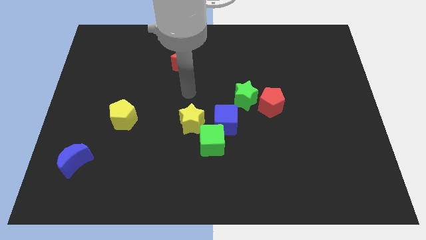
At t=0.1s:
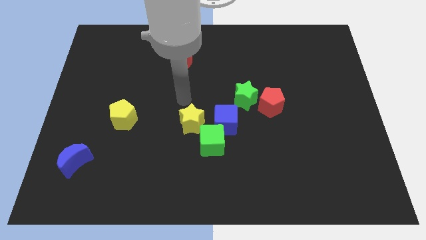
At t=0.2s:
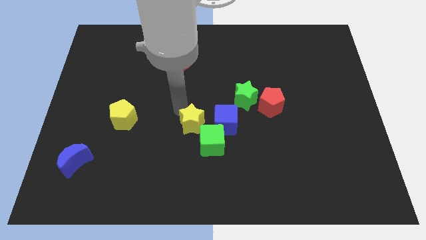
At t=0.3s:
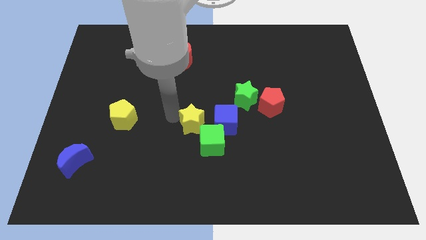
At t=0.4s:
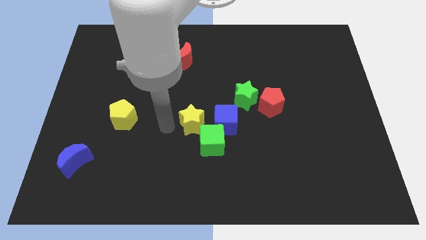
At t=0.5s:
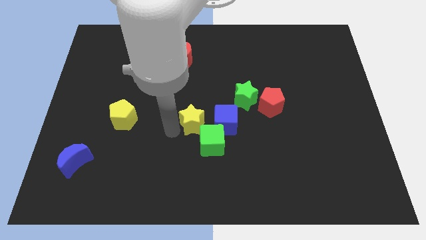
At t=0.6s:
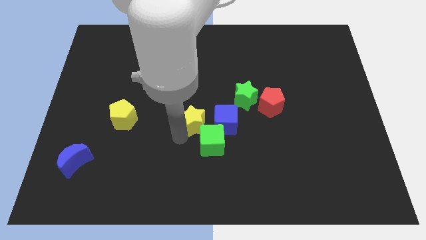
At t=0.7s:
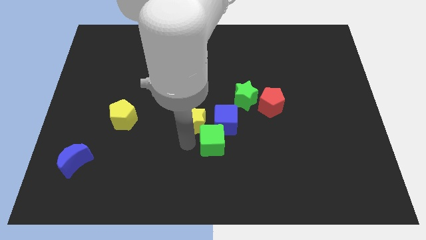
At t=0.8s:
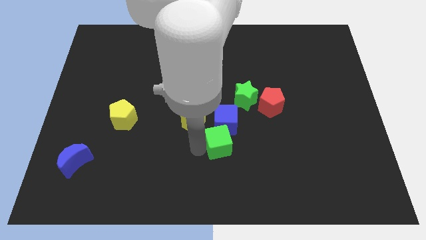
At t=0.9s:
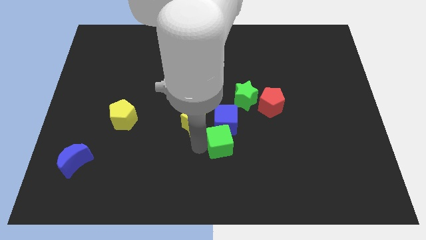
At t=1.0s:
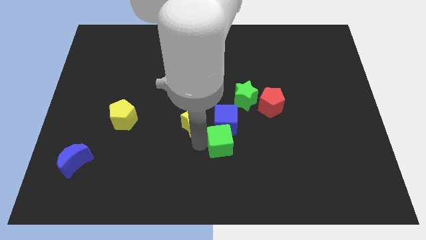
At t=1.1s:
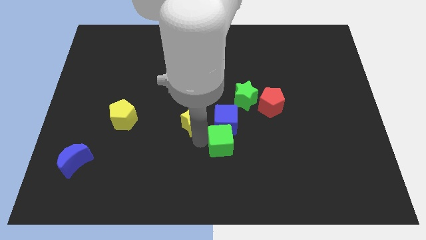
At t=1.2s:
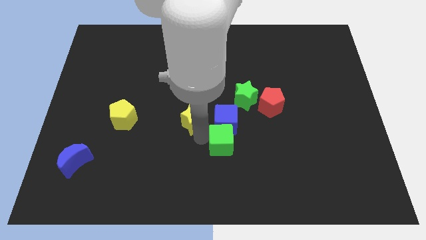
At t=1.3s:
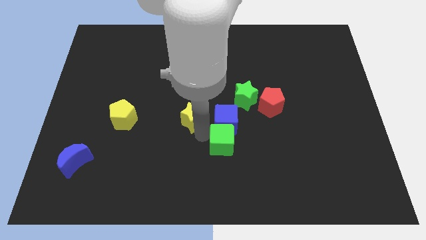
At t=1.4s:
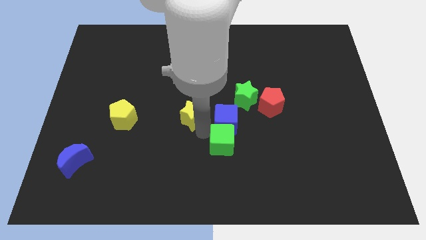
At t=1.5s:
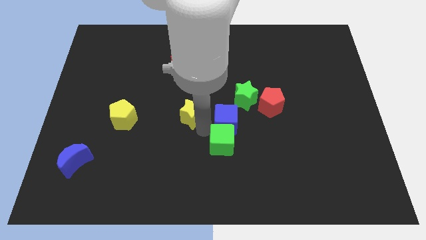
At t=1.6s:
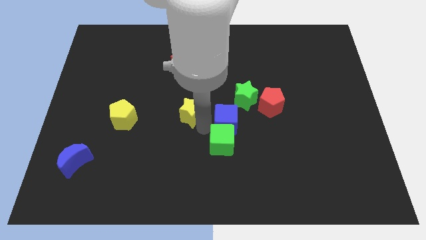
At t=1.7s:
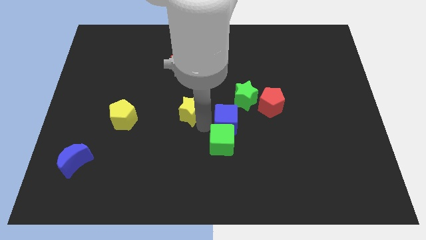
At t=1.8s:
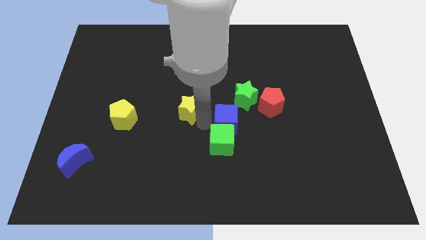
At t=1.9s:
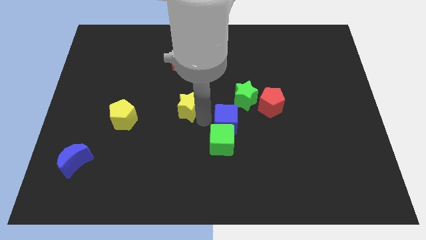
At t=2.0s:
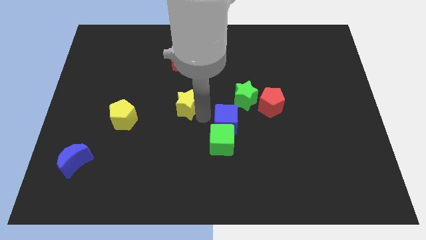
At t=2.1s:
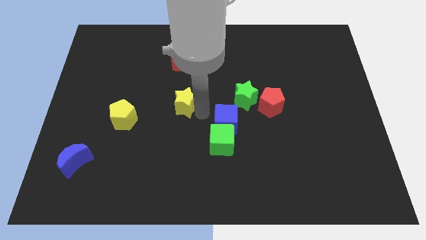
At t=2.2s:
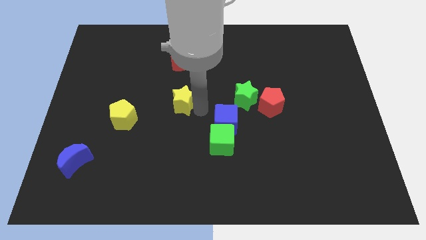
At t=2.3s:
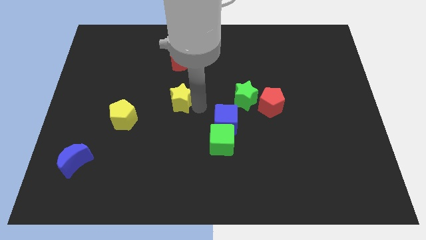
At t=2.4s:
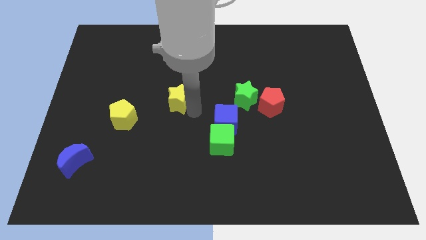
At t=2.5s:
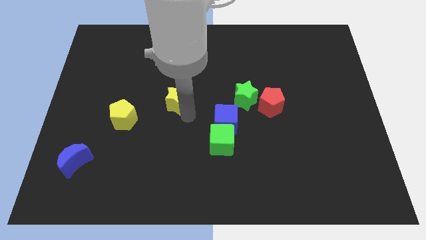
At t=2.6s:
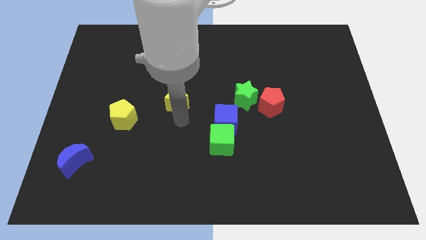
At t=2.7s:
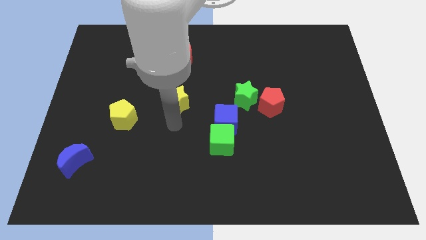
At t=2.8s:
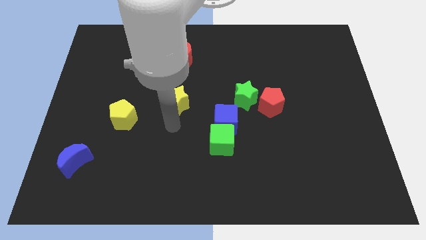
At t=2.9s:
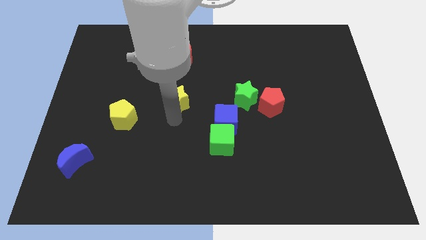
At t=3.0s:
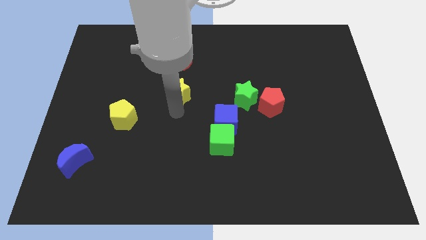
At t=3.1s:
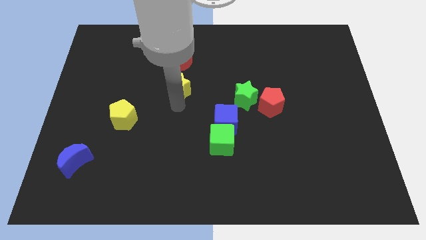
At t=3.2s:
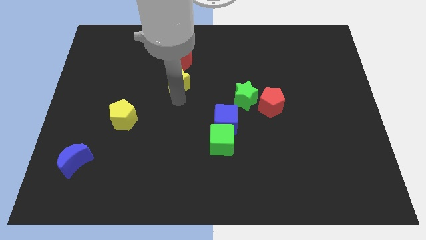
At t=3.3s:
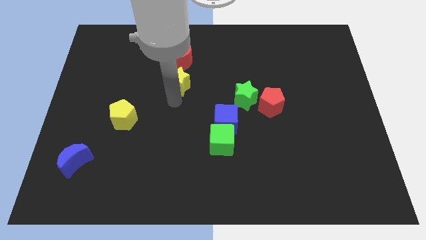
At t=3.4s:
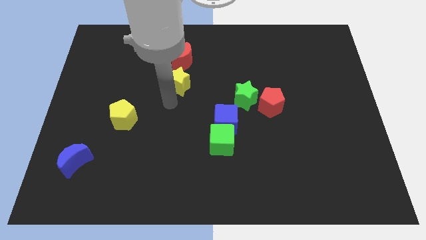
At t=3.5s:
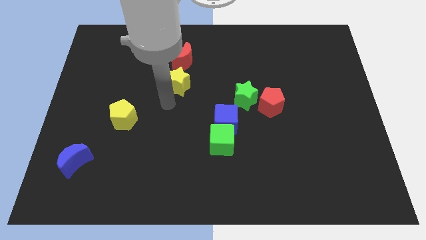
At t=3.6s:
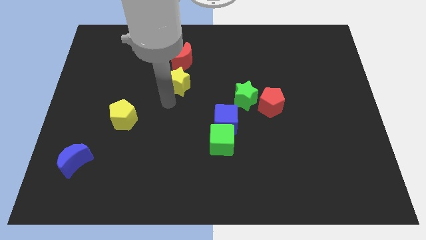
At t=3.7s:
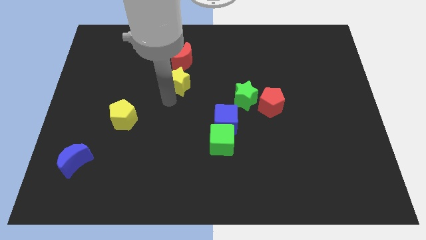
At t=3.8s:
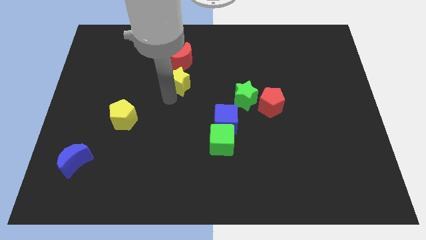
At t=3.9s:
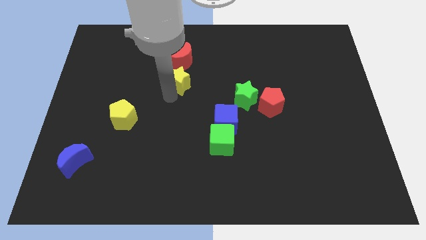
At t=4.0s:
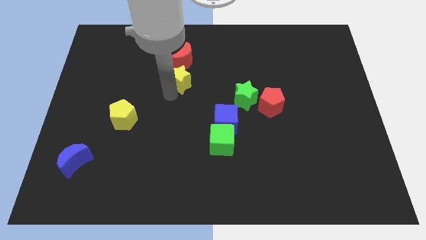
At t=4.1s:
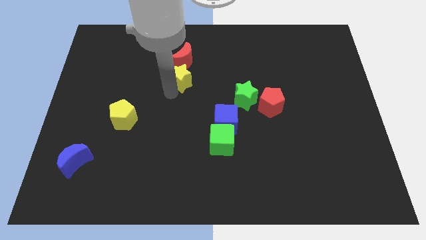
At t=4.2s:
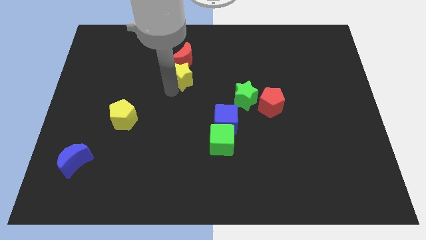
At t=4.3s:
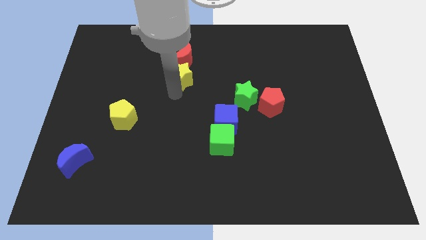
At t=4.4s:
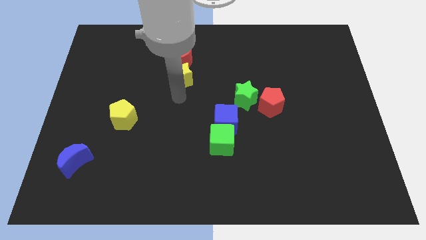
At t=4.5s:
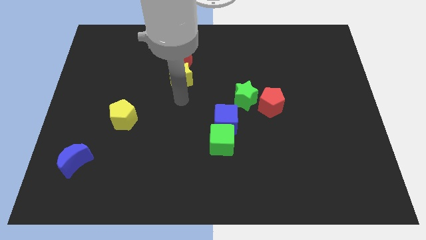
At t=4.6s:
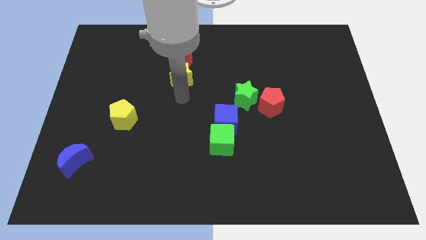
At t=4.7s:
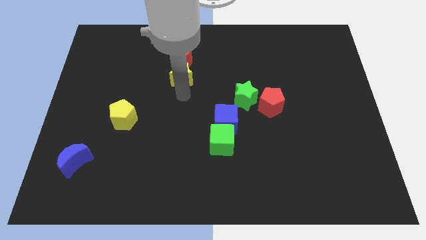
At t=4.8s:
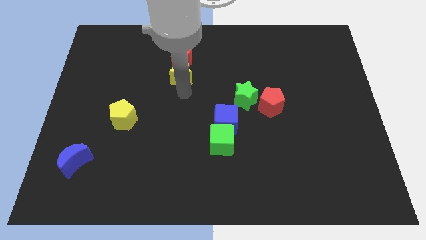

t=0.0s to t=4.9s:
put the yellow star close to the red moon

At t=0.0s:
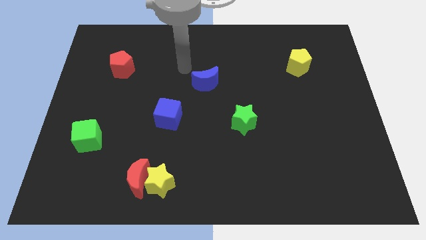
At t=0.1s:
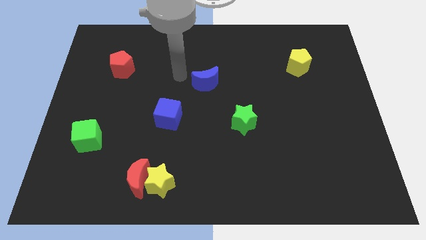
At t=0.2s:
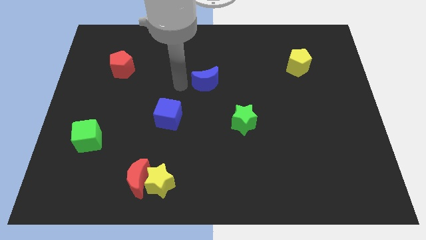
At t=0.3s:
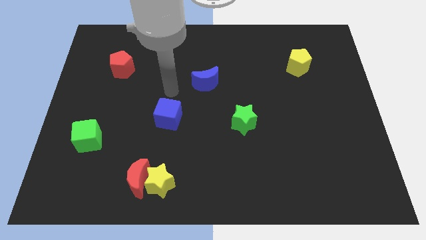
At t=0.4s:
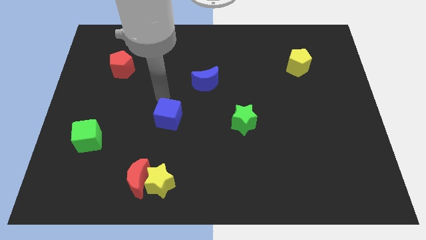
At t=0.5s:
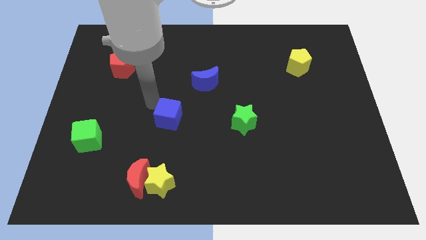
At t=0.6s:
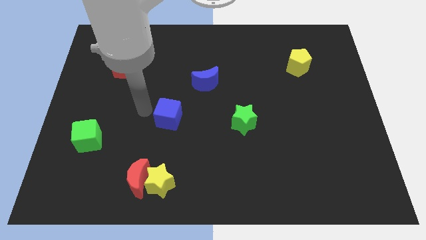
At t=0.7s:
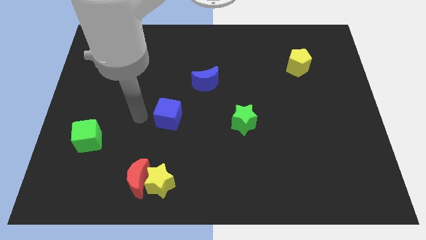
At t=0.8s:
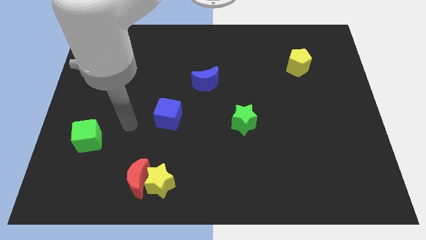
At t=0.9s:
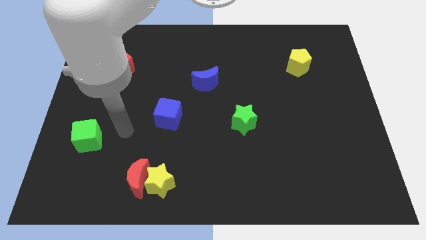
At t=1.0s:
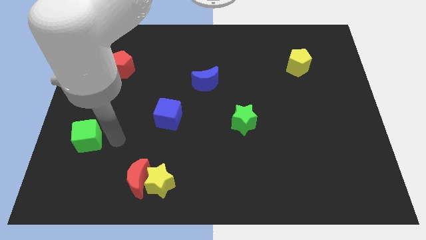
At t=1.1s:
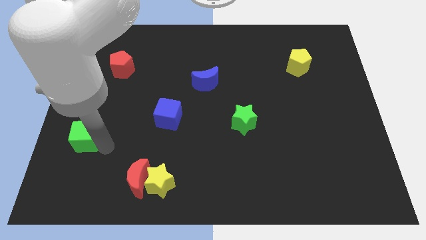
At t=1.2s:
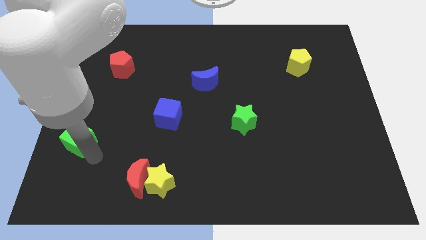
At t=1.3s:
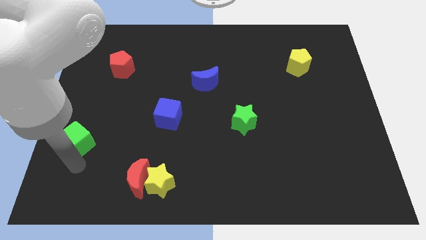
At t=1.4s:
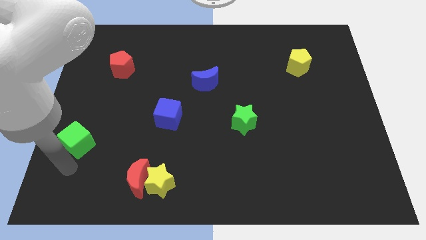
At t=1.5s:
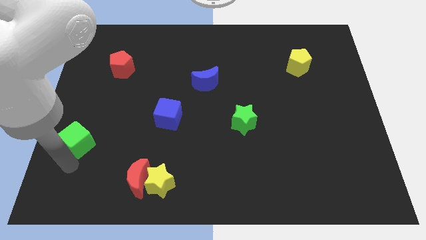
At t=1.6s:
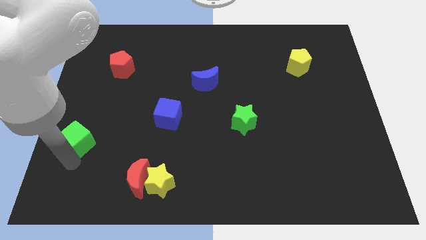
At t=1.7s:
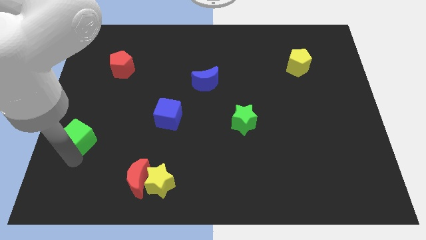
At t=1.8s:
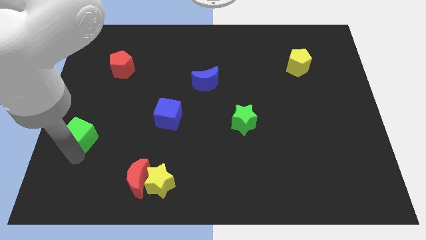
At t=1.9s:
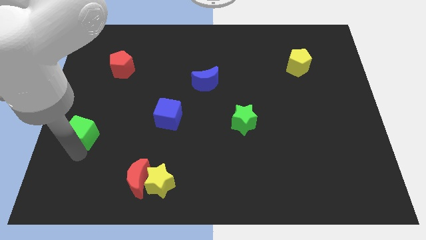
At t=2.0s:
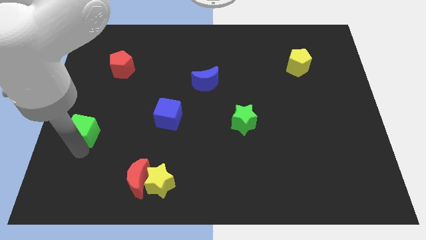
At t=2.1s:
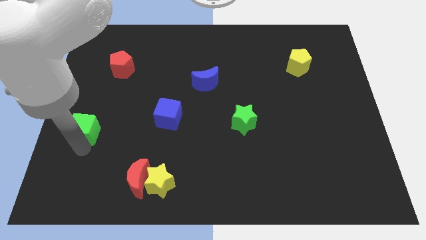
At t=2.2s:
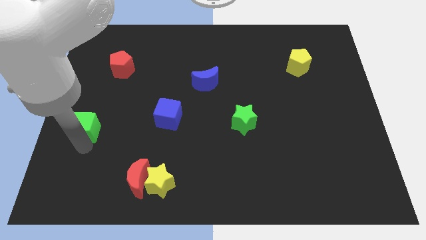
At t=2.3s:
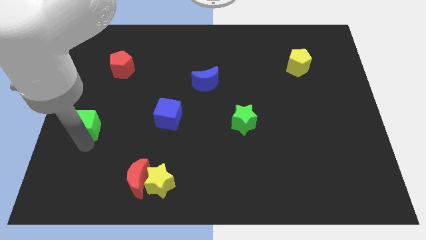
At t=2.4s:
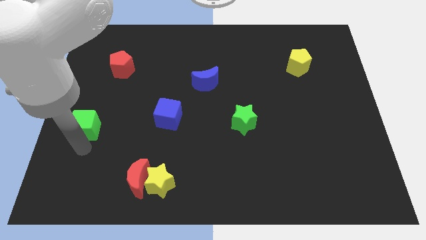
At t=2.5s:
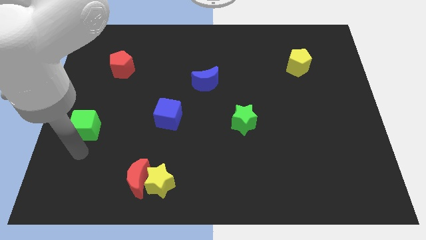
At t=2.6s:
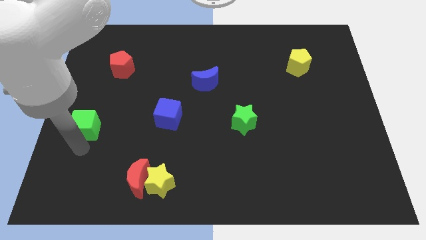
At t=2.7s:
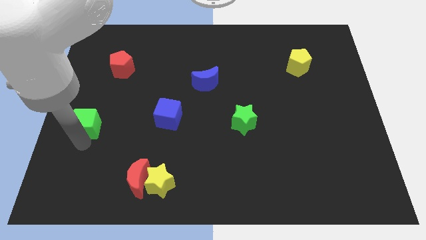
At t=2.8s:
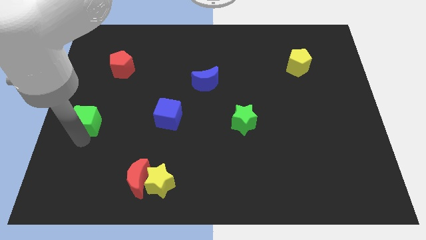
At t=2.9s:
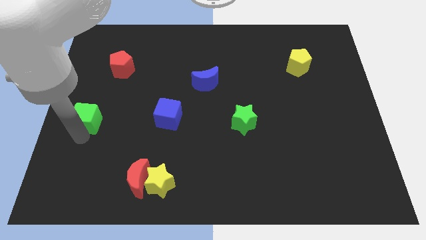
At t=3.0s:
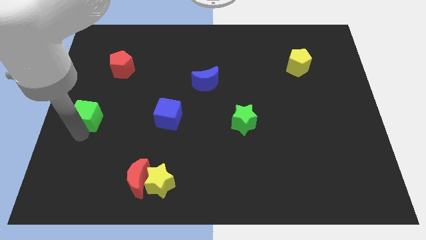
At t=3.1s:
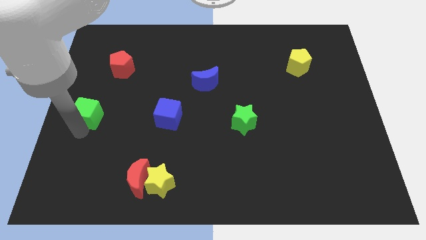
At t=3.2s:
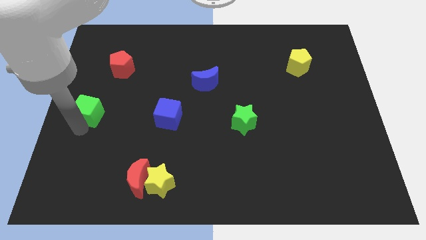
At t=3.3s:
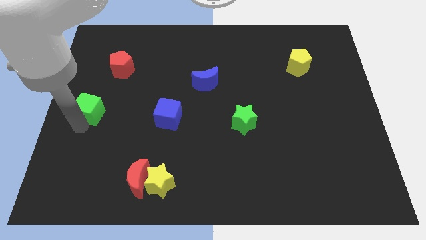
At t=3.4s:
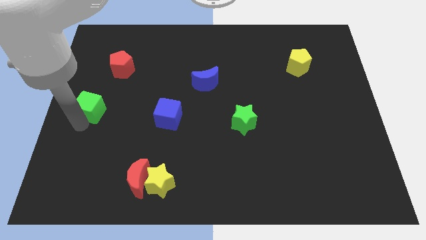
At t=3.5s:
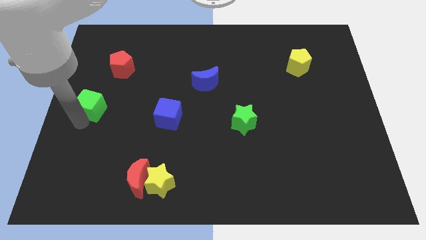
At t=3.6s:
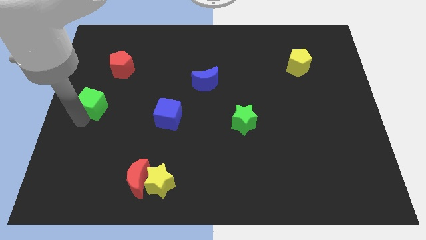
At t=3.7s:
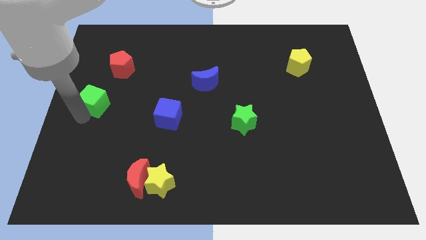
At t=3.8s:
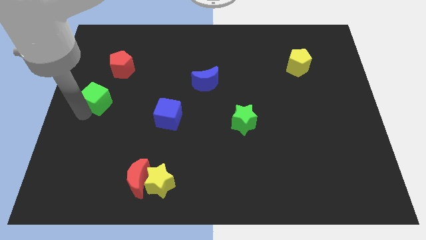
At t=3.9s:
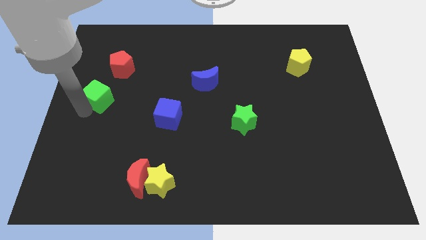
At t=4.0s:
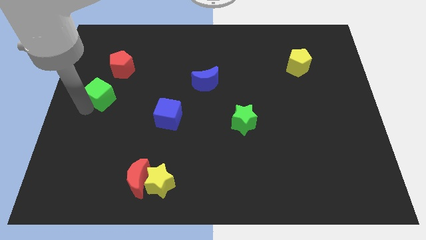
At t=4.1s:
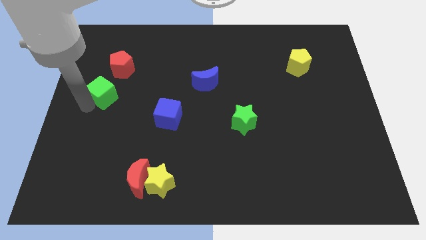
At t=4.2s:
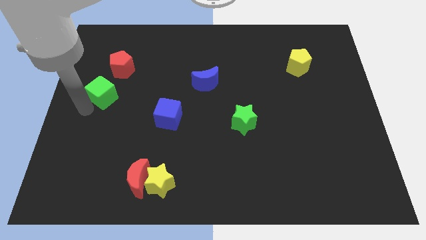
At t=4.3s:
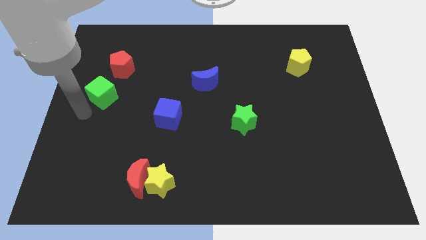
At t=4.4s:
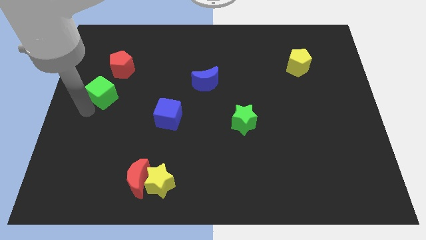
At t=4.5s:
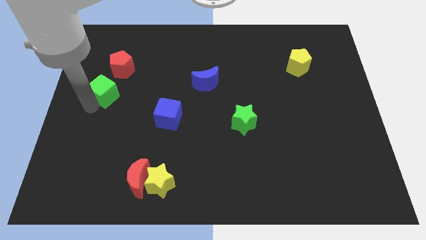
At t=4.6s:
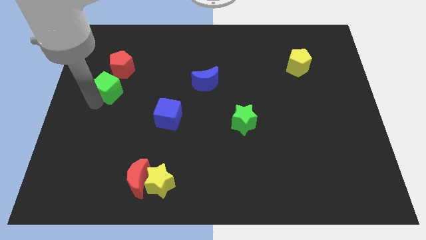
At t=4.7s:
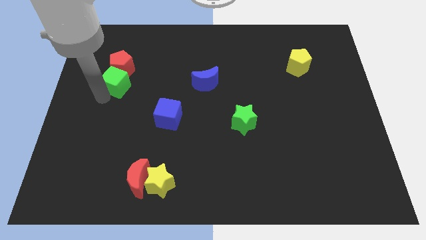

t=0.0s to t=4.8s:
push the green cube towards the red pentagon
